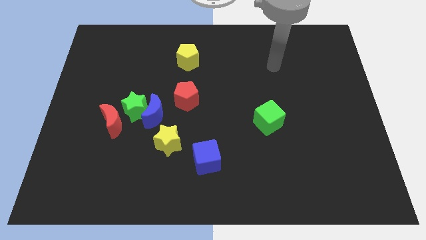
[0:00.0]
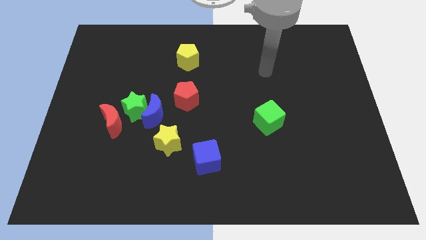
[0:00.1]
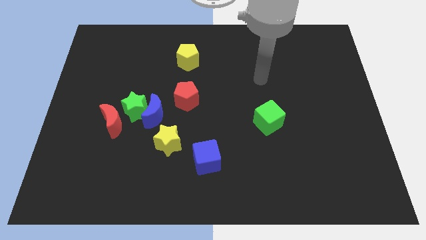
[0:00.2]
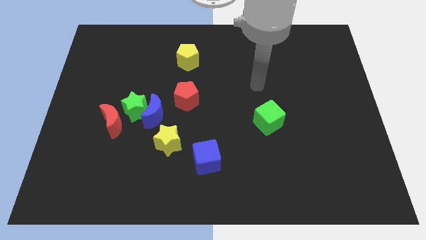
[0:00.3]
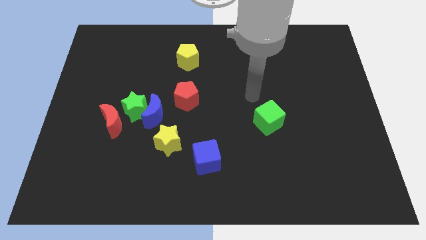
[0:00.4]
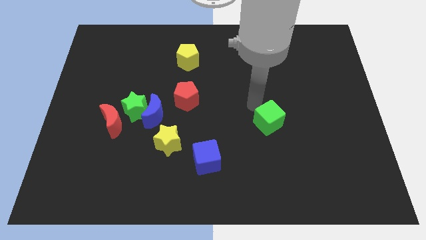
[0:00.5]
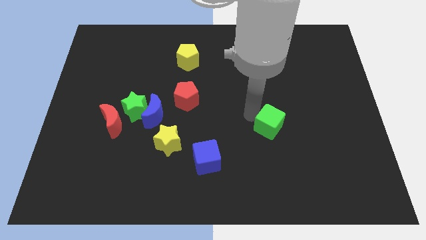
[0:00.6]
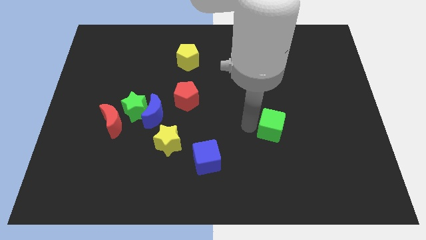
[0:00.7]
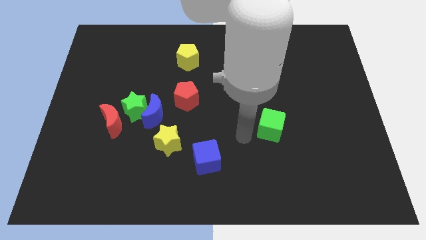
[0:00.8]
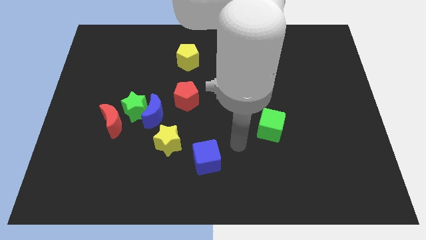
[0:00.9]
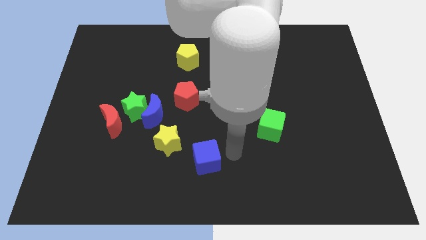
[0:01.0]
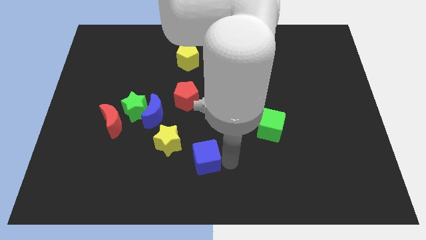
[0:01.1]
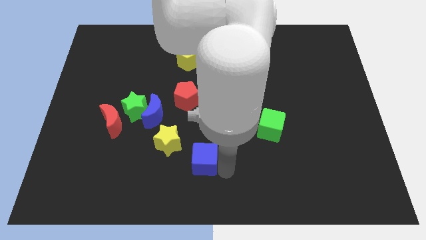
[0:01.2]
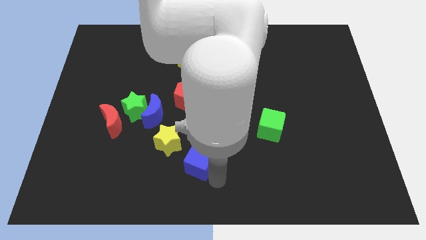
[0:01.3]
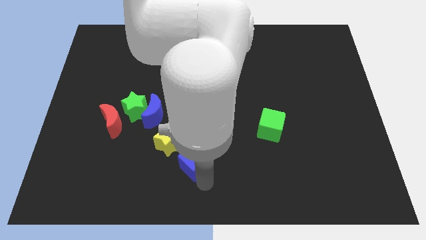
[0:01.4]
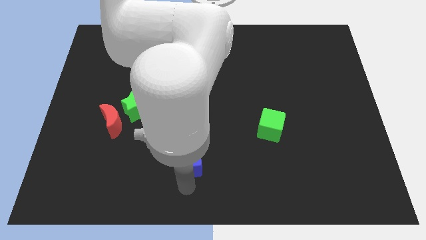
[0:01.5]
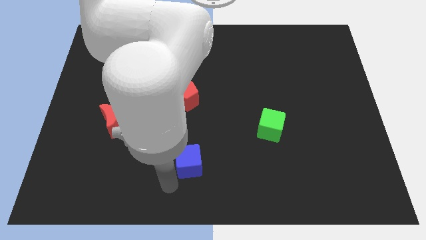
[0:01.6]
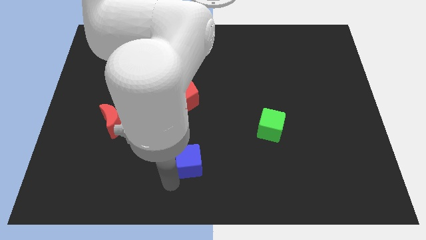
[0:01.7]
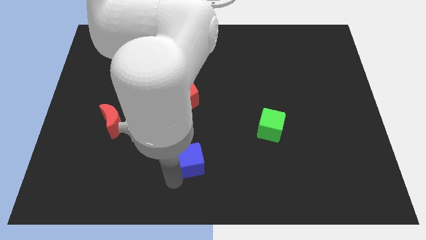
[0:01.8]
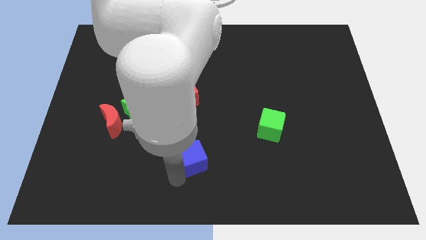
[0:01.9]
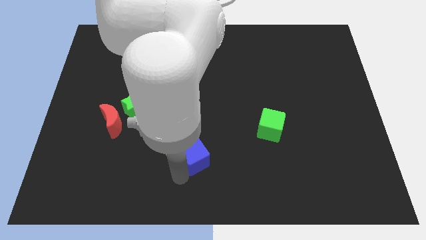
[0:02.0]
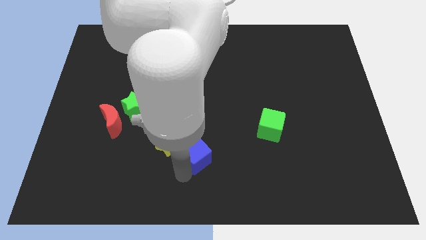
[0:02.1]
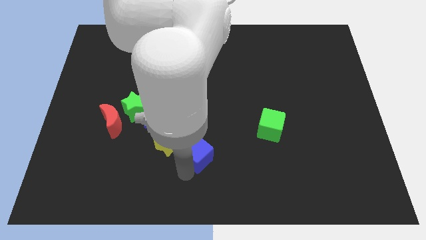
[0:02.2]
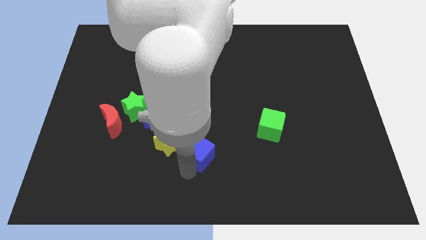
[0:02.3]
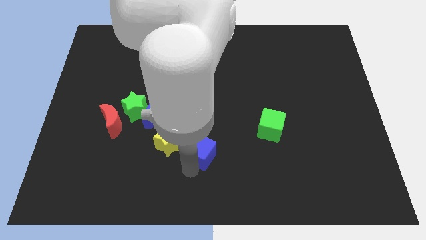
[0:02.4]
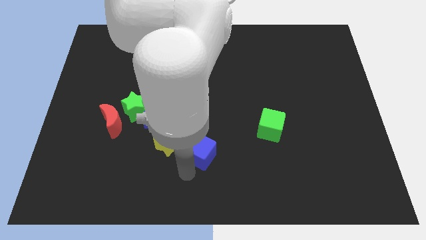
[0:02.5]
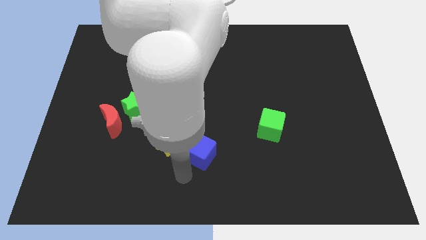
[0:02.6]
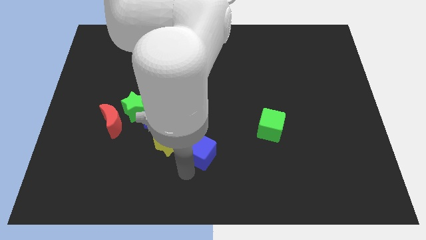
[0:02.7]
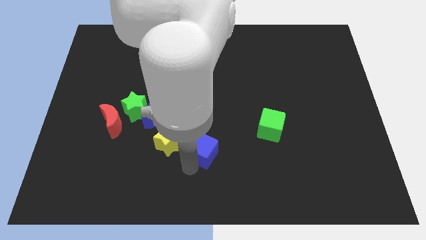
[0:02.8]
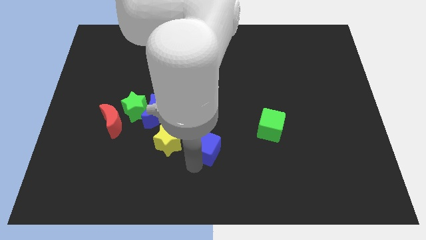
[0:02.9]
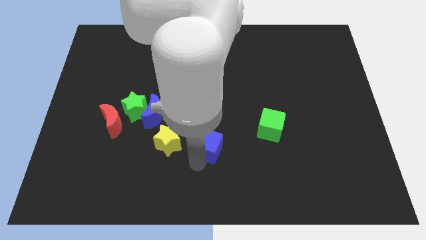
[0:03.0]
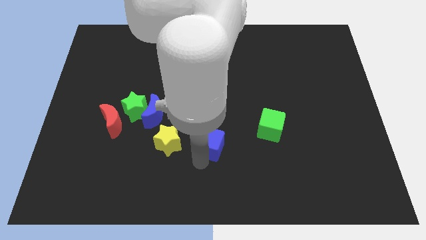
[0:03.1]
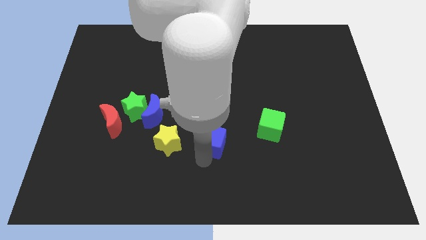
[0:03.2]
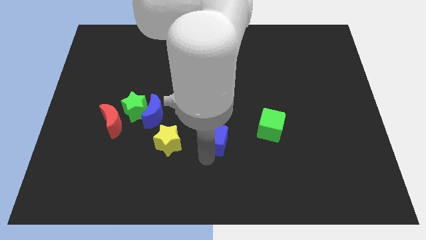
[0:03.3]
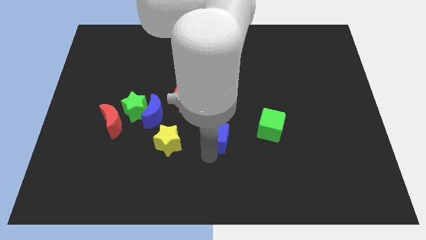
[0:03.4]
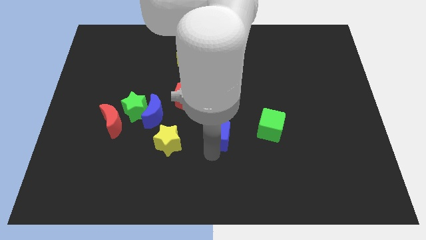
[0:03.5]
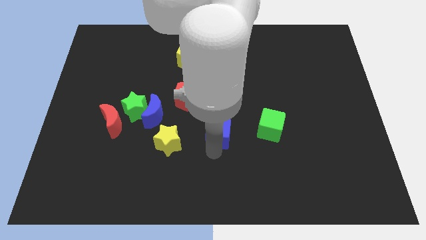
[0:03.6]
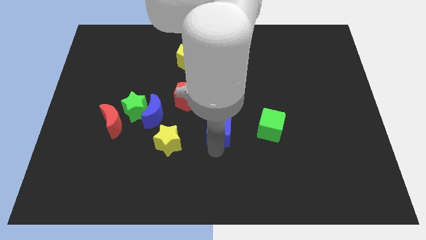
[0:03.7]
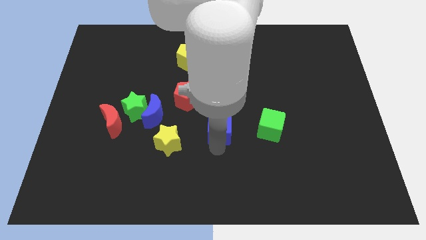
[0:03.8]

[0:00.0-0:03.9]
move the blue cube up somewhat

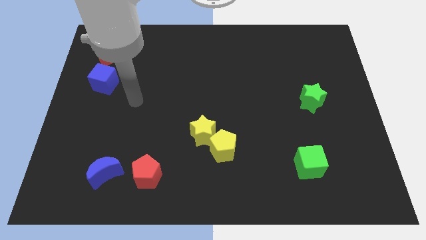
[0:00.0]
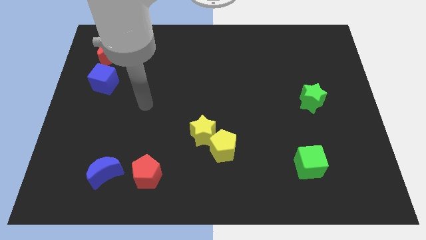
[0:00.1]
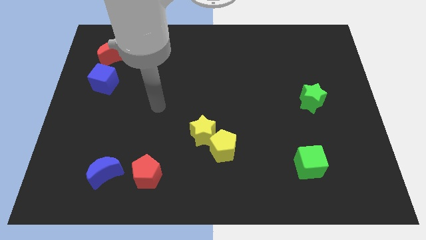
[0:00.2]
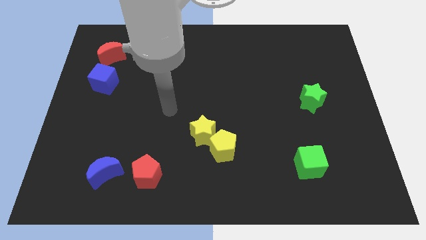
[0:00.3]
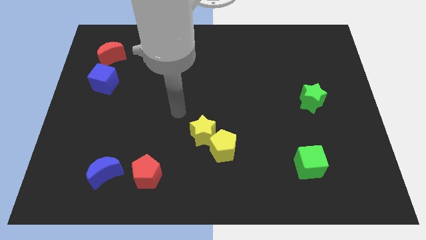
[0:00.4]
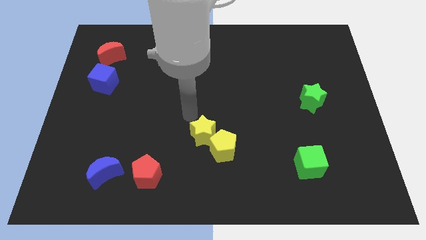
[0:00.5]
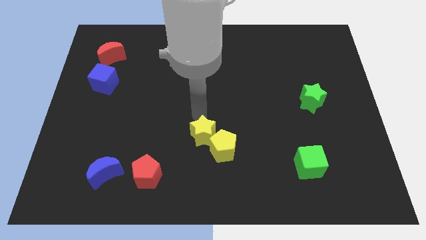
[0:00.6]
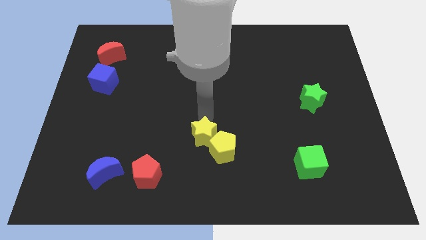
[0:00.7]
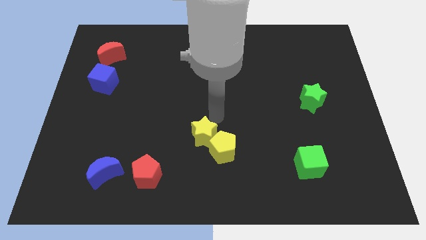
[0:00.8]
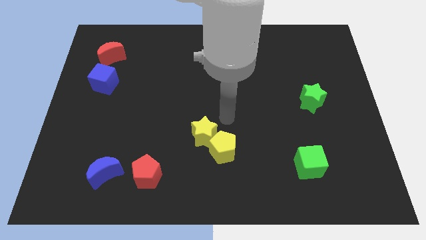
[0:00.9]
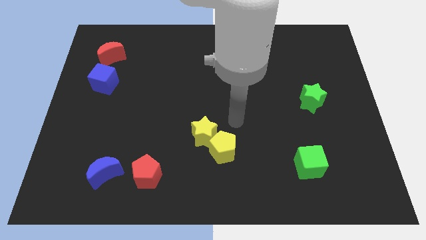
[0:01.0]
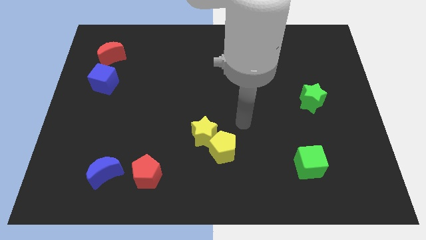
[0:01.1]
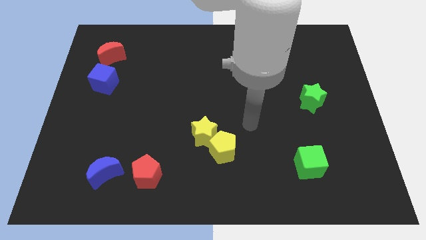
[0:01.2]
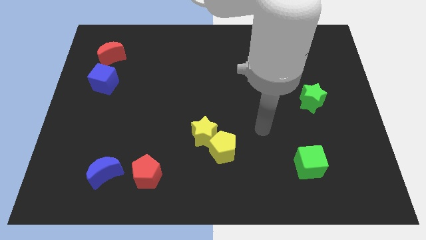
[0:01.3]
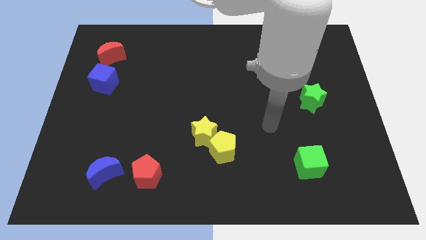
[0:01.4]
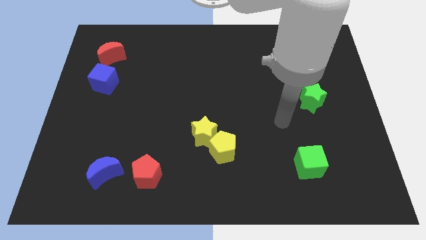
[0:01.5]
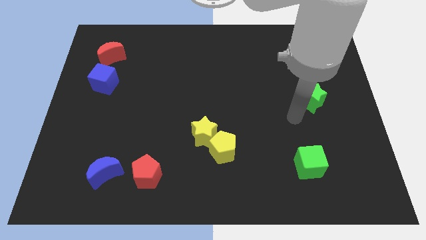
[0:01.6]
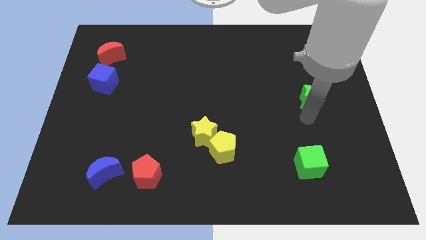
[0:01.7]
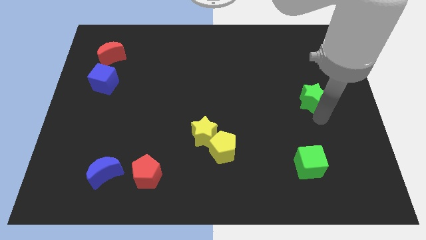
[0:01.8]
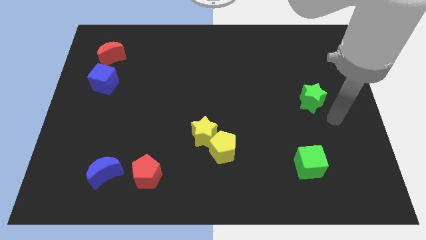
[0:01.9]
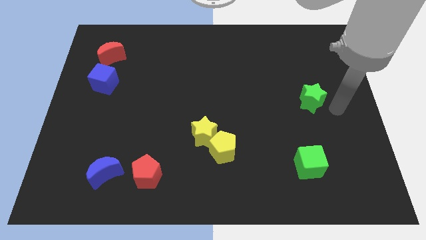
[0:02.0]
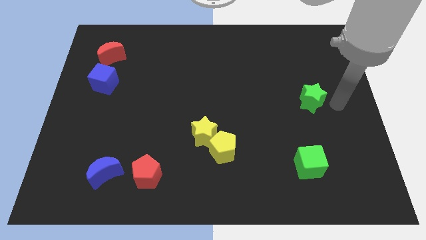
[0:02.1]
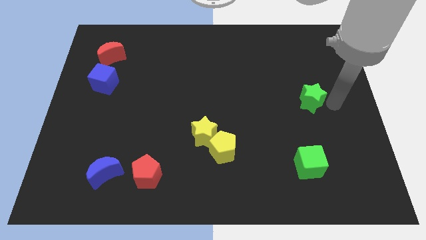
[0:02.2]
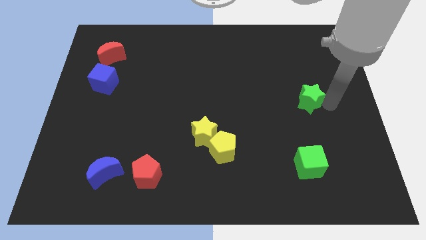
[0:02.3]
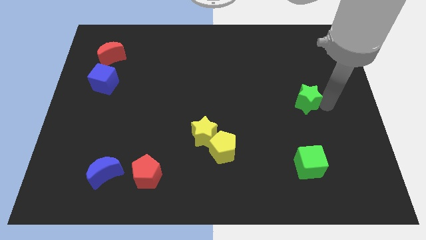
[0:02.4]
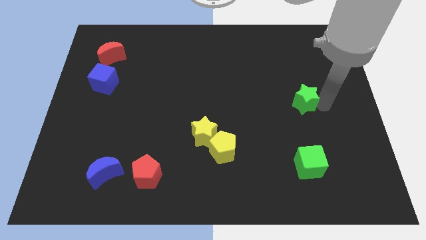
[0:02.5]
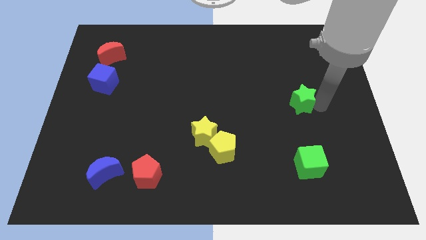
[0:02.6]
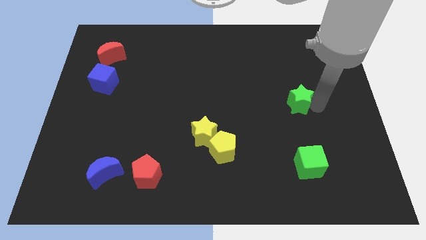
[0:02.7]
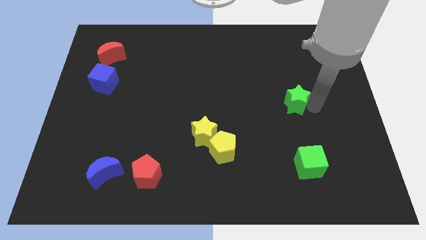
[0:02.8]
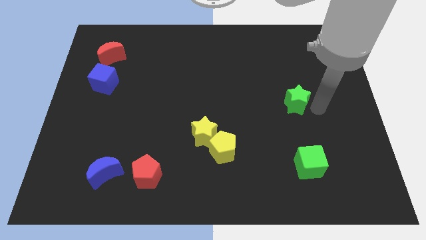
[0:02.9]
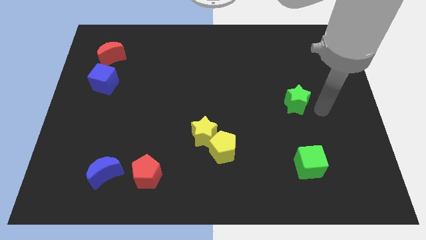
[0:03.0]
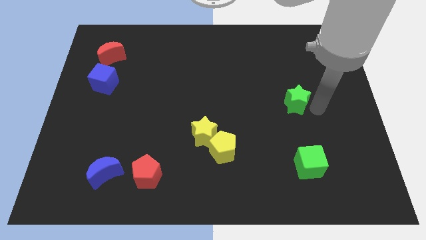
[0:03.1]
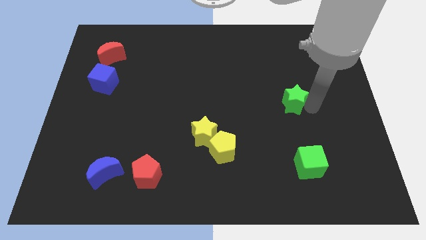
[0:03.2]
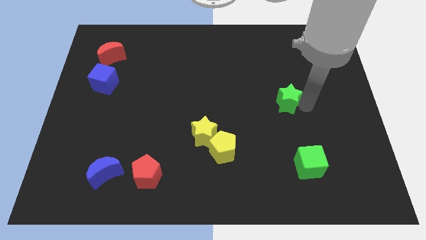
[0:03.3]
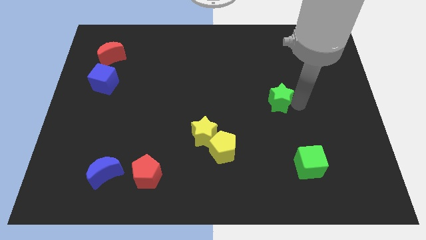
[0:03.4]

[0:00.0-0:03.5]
move the green star a bit left

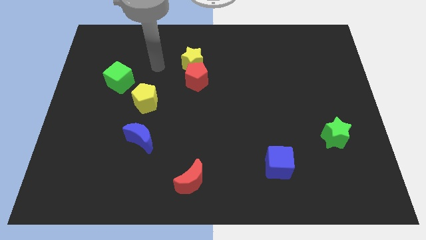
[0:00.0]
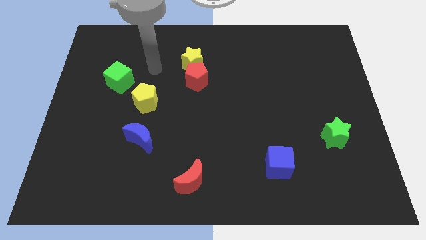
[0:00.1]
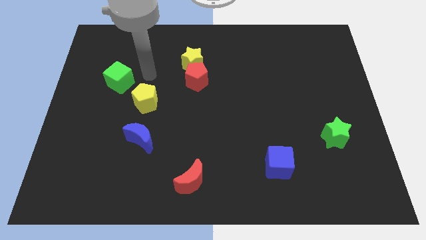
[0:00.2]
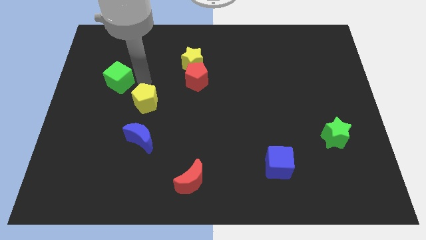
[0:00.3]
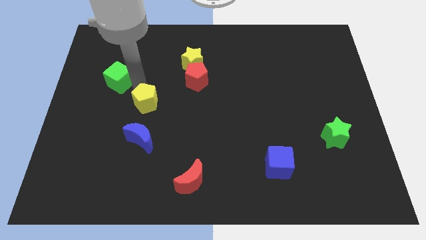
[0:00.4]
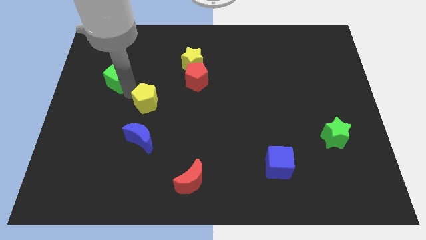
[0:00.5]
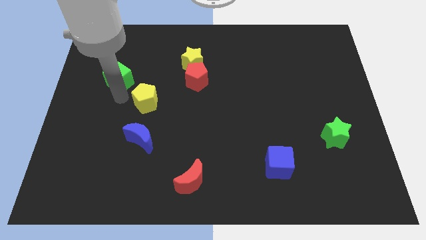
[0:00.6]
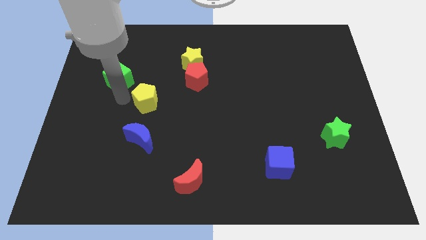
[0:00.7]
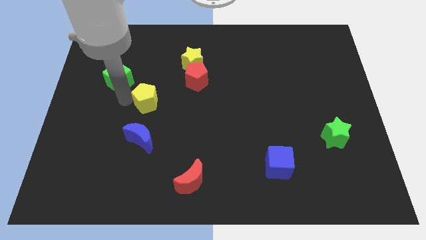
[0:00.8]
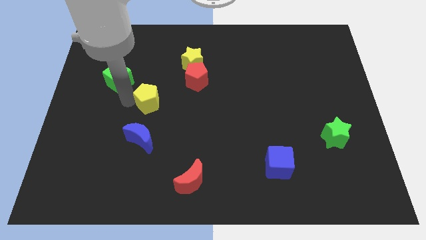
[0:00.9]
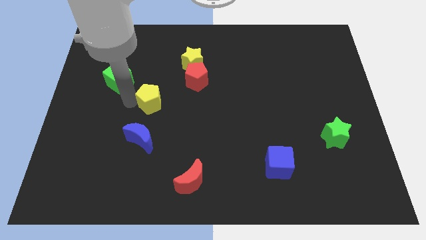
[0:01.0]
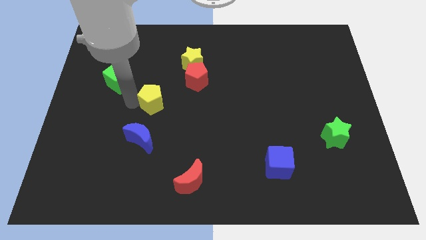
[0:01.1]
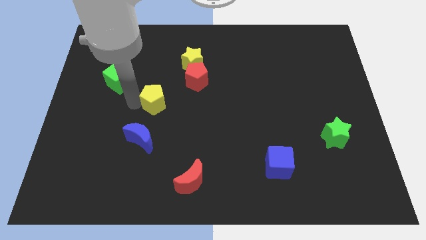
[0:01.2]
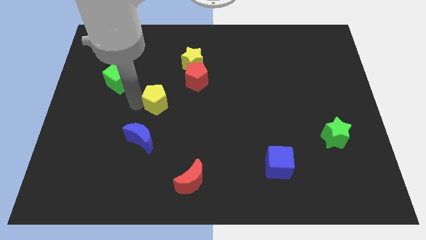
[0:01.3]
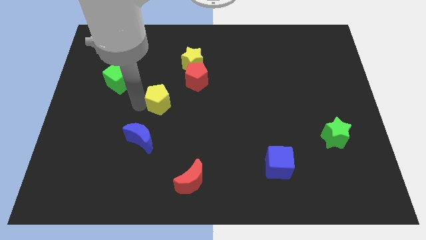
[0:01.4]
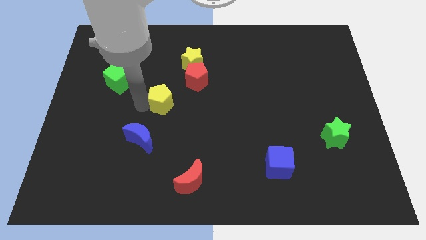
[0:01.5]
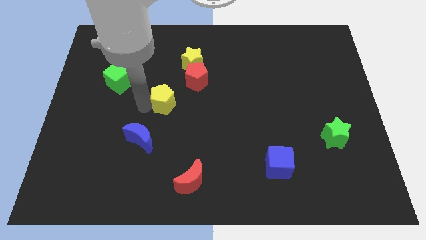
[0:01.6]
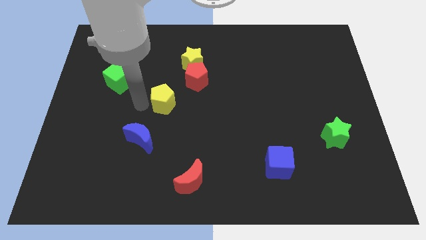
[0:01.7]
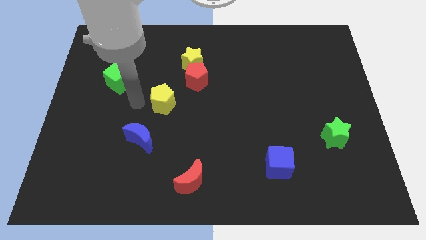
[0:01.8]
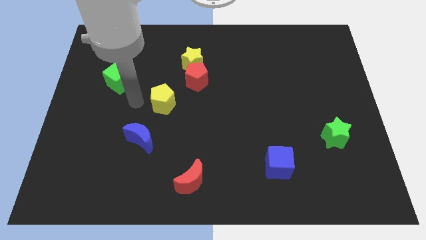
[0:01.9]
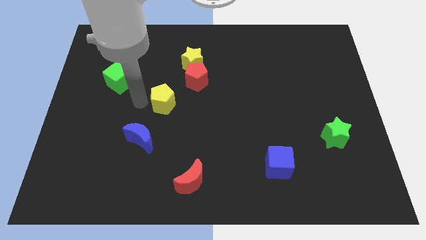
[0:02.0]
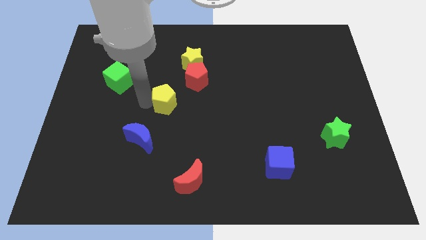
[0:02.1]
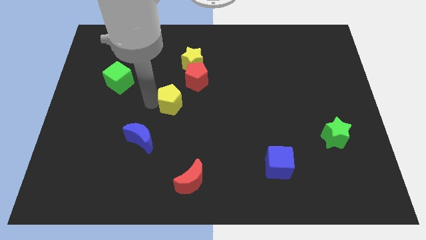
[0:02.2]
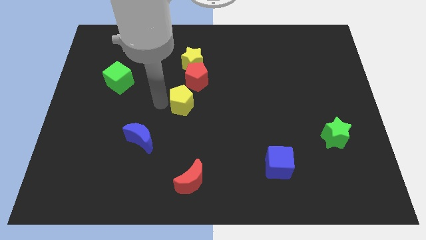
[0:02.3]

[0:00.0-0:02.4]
move the yellow pentagon somewhat to the right
